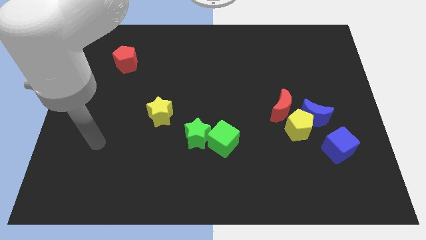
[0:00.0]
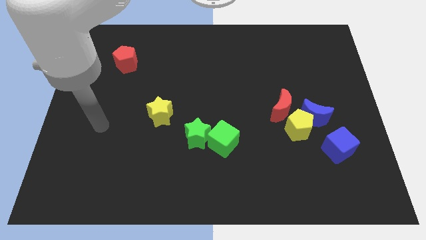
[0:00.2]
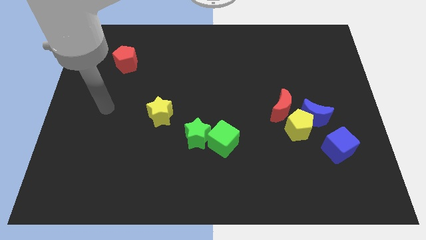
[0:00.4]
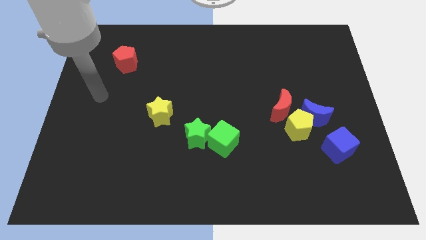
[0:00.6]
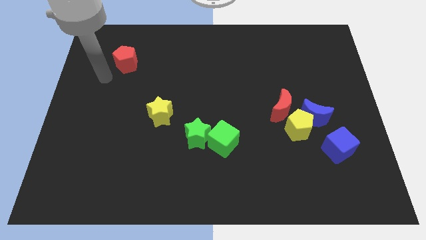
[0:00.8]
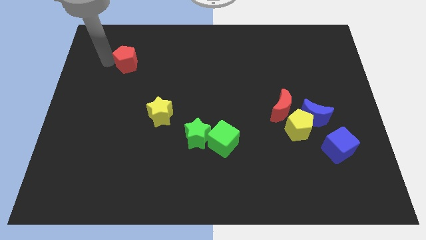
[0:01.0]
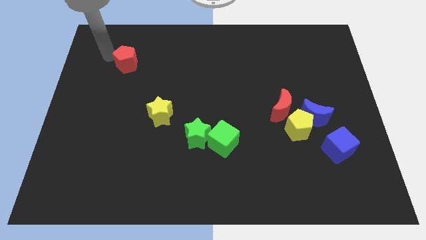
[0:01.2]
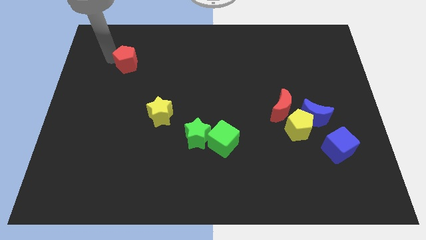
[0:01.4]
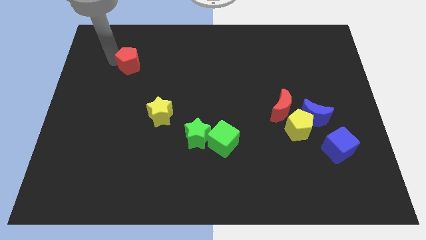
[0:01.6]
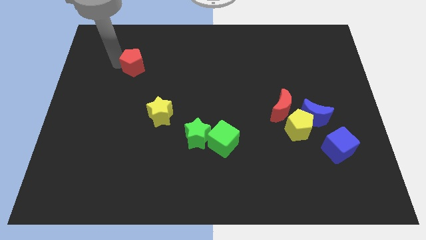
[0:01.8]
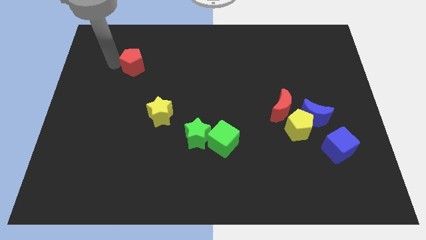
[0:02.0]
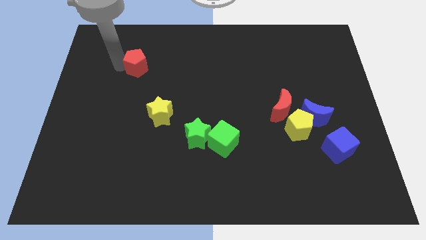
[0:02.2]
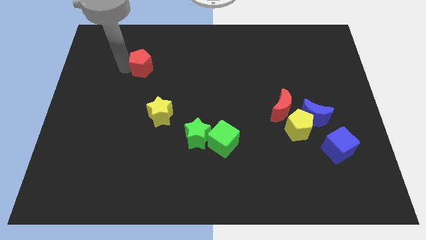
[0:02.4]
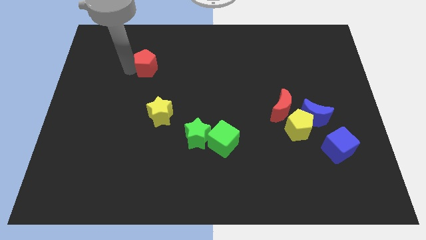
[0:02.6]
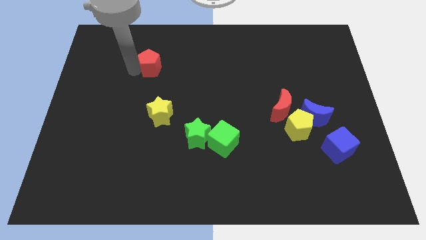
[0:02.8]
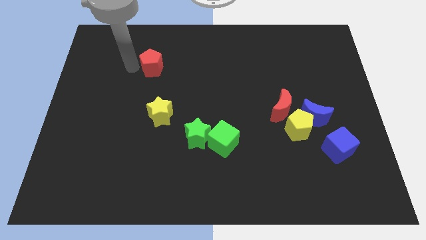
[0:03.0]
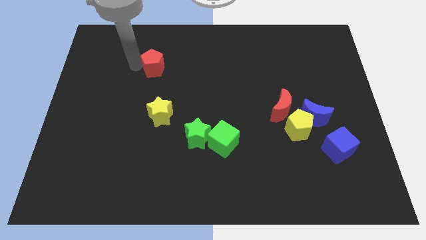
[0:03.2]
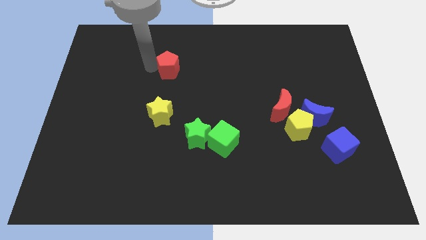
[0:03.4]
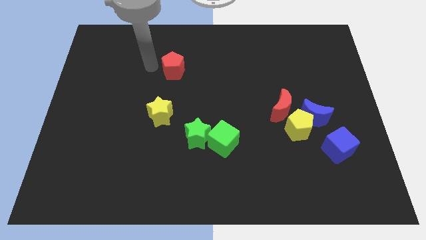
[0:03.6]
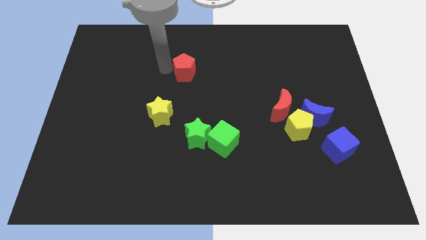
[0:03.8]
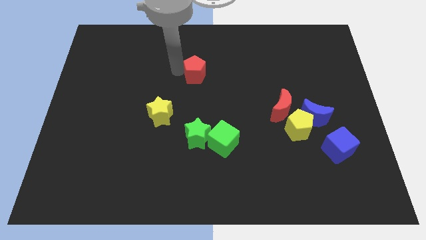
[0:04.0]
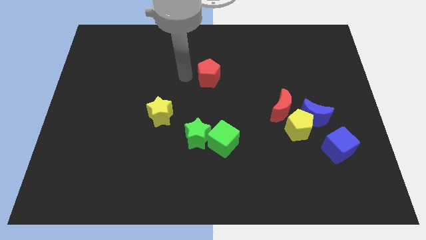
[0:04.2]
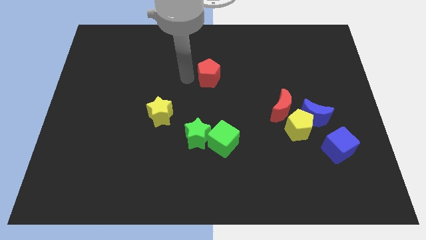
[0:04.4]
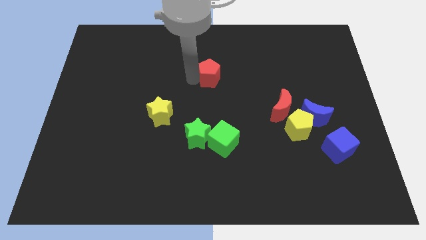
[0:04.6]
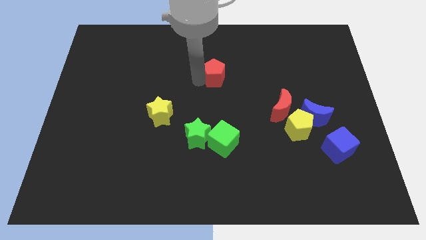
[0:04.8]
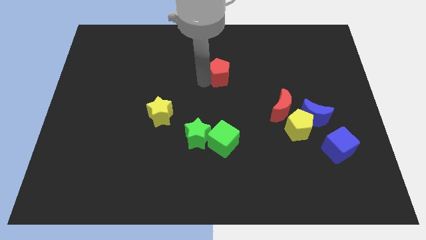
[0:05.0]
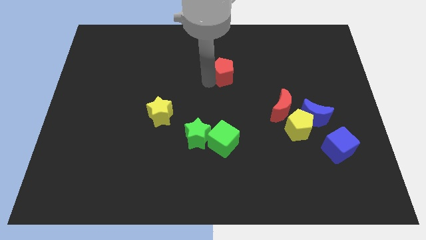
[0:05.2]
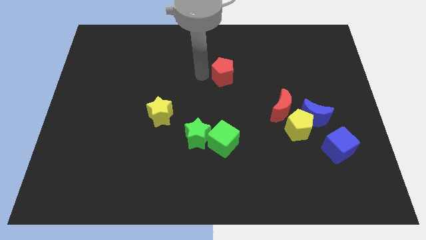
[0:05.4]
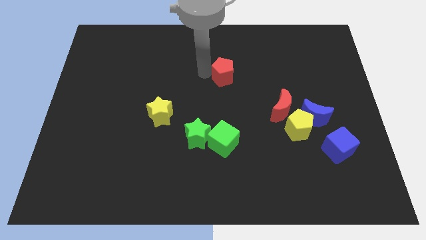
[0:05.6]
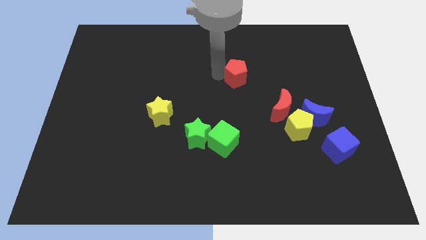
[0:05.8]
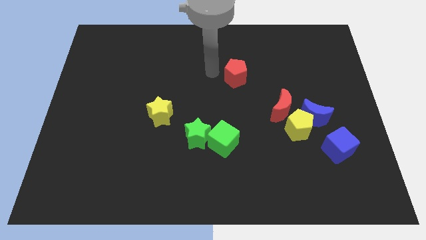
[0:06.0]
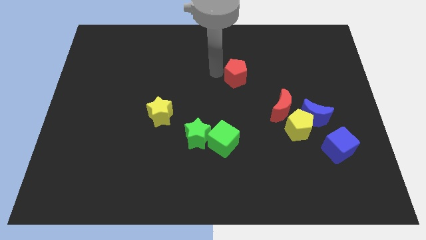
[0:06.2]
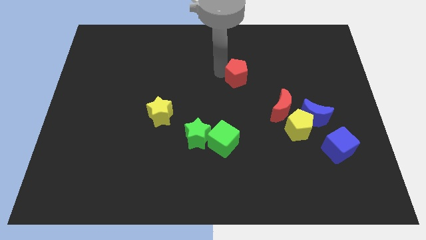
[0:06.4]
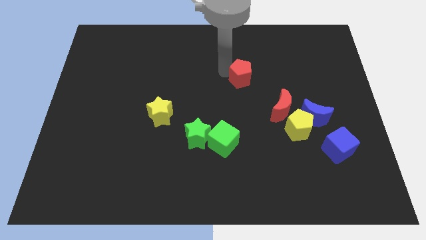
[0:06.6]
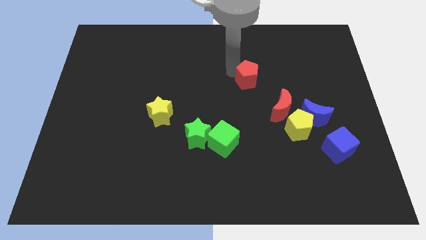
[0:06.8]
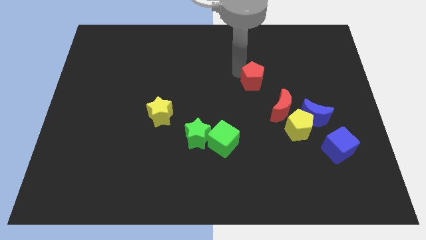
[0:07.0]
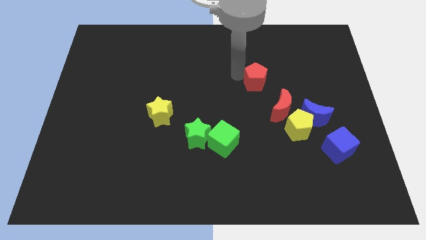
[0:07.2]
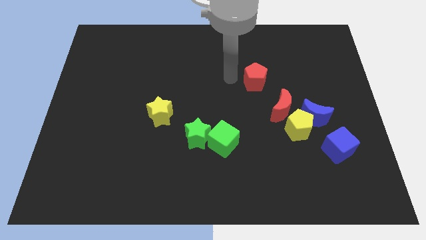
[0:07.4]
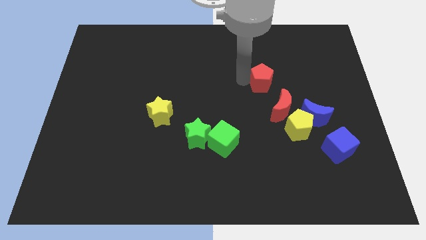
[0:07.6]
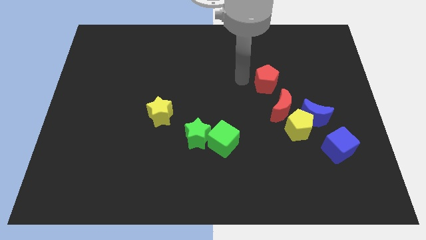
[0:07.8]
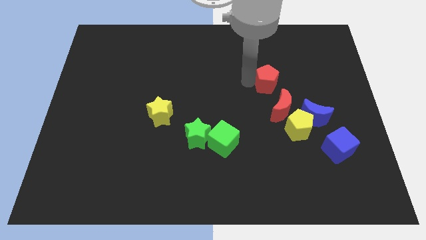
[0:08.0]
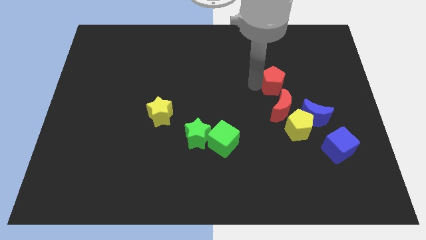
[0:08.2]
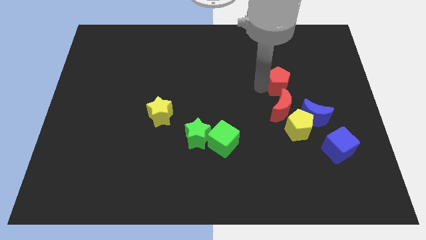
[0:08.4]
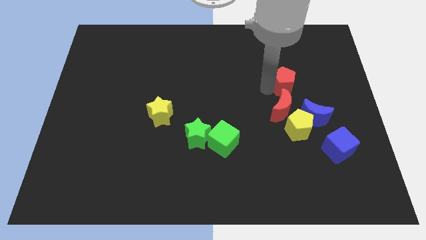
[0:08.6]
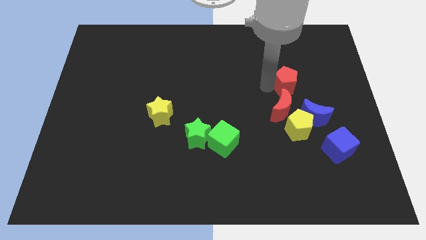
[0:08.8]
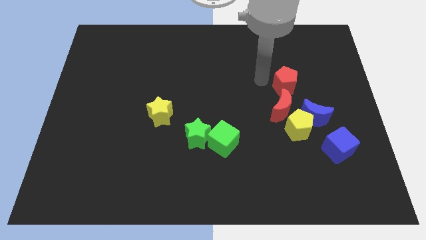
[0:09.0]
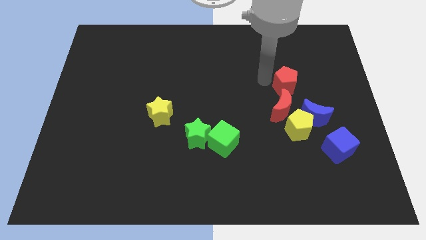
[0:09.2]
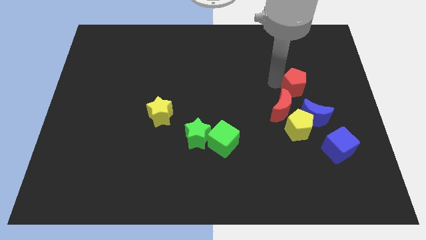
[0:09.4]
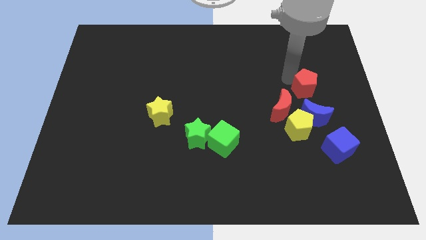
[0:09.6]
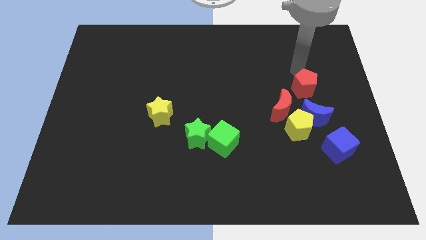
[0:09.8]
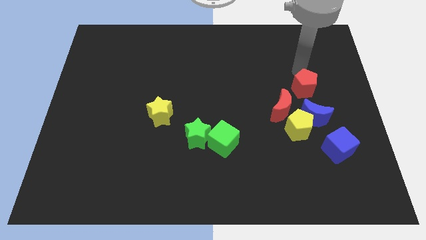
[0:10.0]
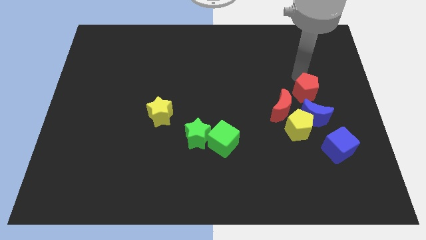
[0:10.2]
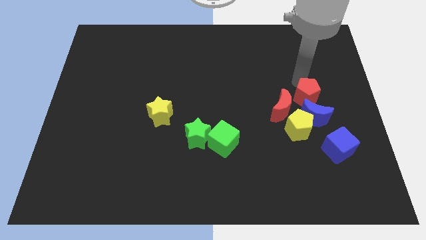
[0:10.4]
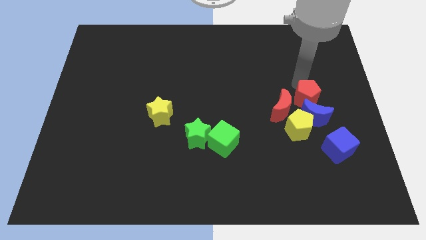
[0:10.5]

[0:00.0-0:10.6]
slide the red pentagon next to the blue moon

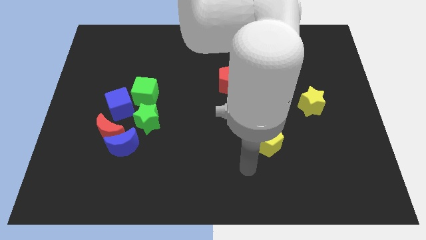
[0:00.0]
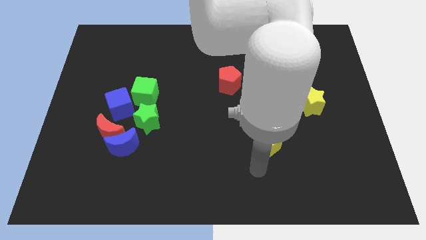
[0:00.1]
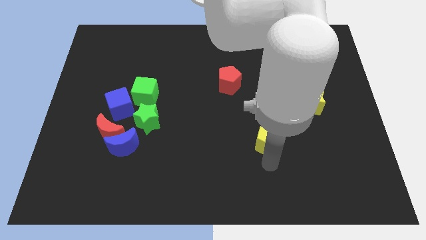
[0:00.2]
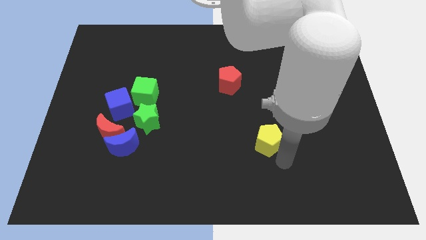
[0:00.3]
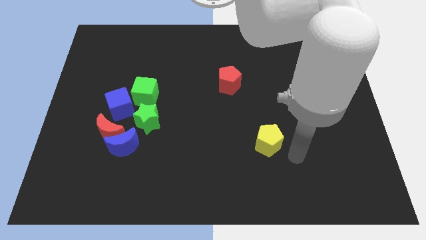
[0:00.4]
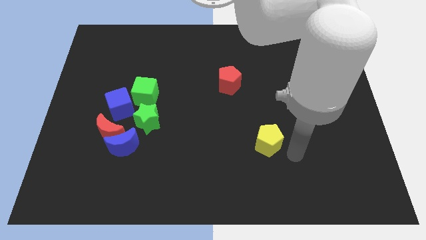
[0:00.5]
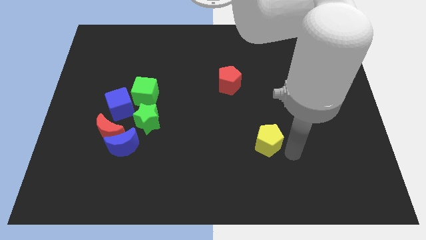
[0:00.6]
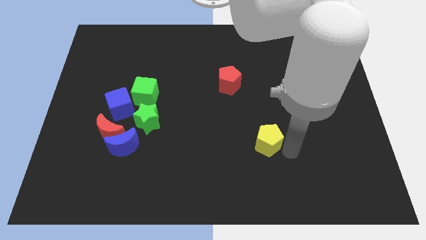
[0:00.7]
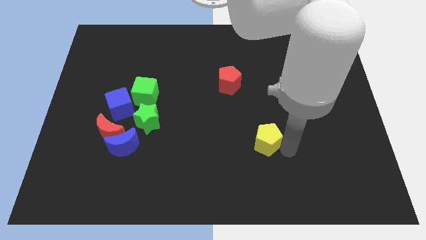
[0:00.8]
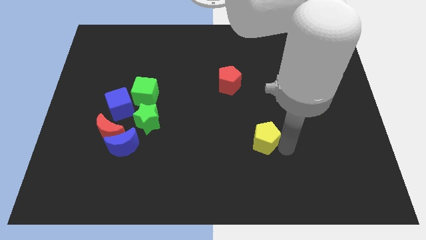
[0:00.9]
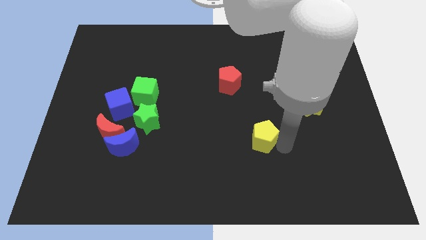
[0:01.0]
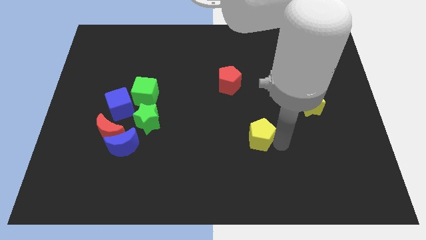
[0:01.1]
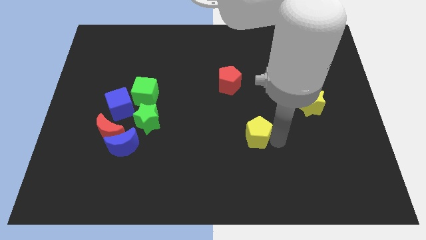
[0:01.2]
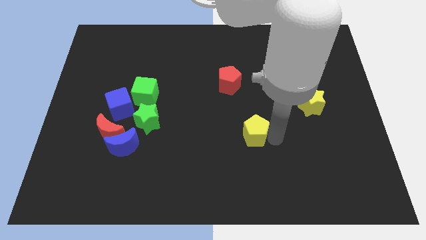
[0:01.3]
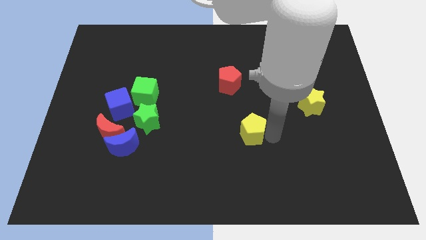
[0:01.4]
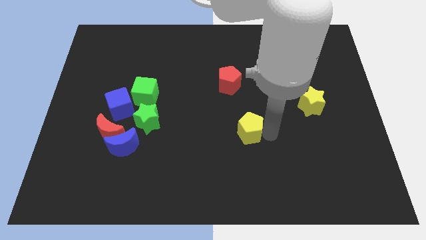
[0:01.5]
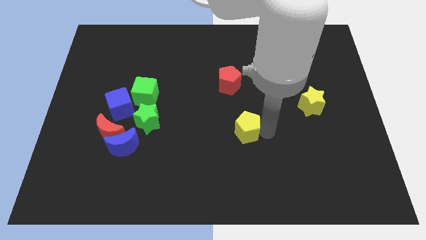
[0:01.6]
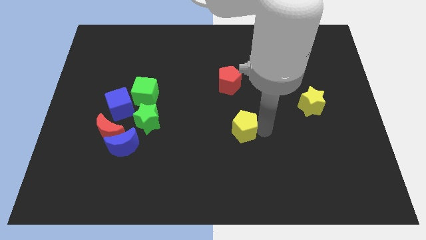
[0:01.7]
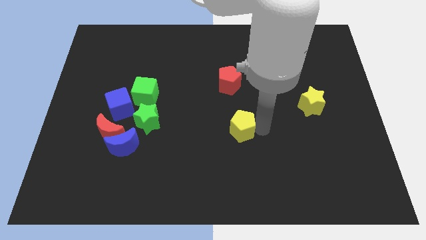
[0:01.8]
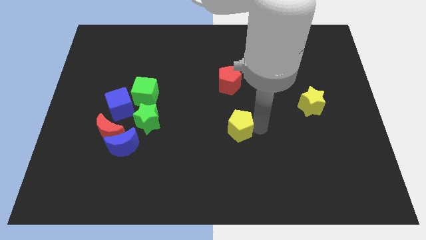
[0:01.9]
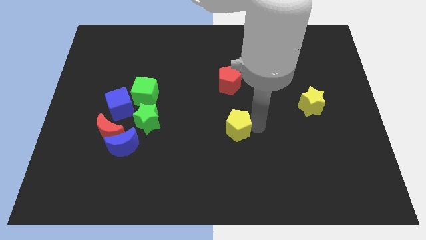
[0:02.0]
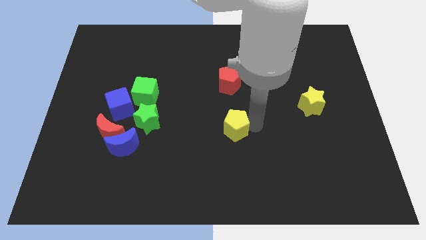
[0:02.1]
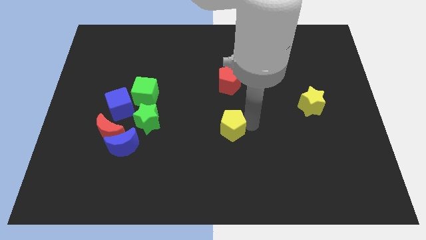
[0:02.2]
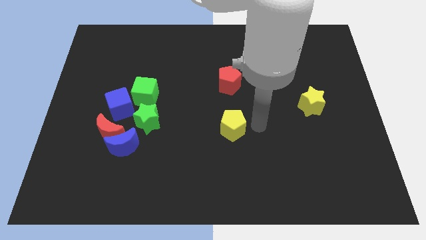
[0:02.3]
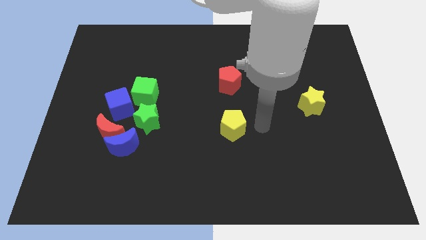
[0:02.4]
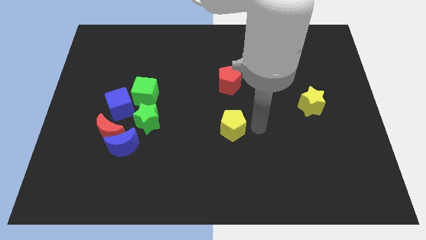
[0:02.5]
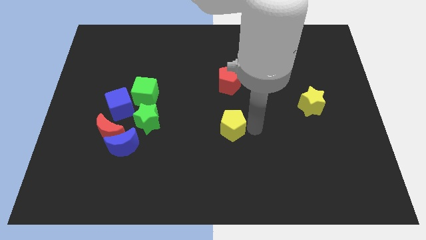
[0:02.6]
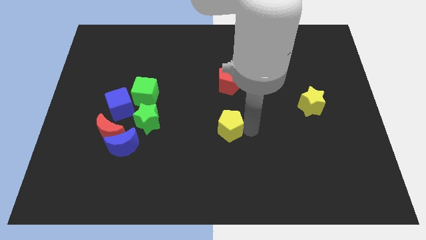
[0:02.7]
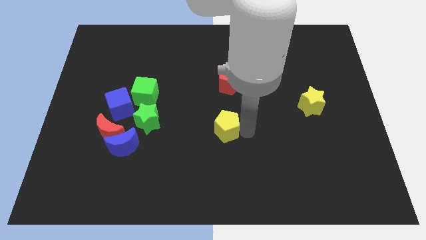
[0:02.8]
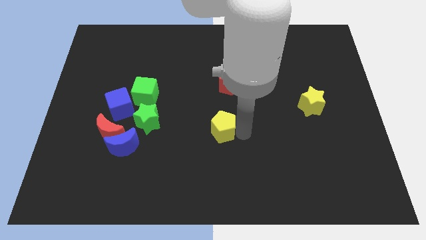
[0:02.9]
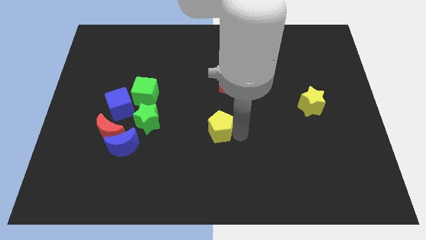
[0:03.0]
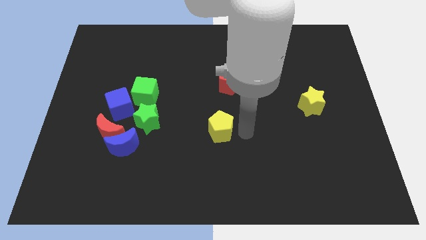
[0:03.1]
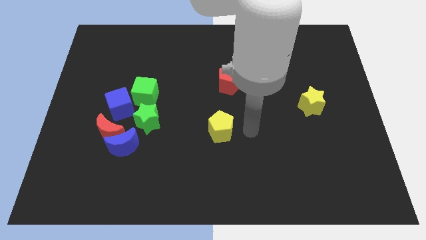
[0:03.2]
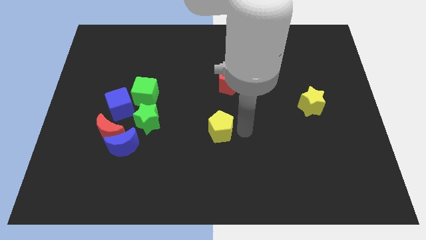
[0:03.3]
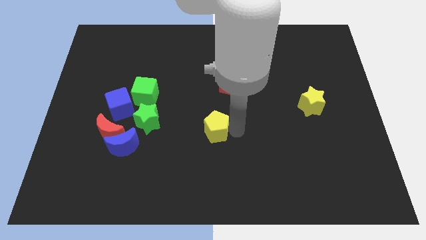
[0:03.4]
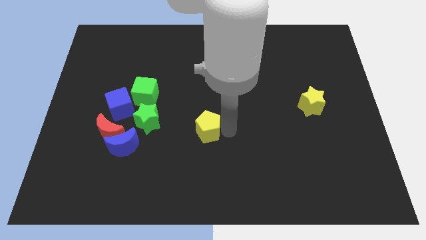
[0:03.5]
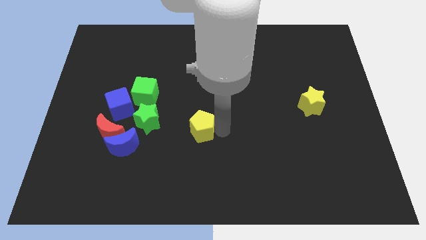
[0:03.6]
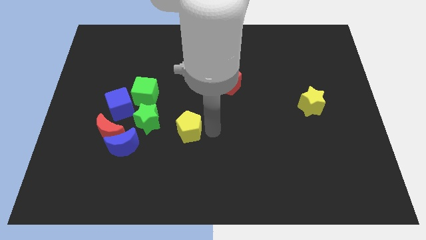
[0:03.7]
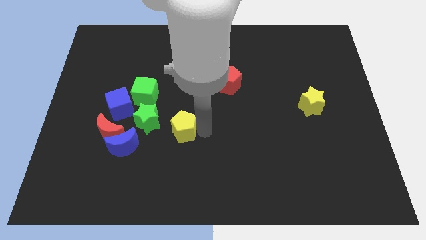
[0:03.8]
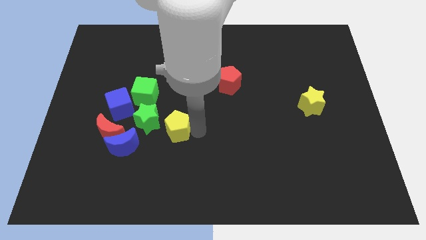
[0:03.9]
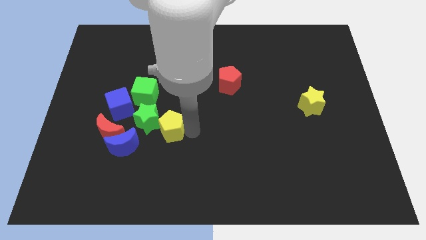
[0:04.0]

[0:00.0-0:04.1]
move the yellow pentagon next to the green star
